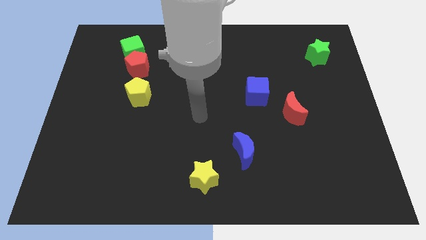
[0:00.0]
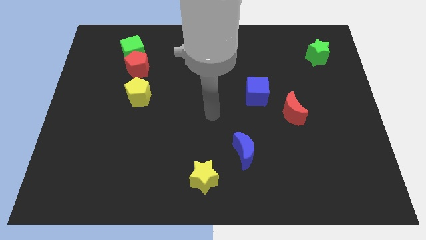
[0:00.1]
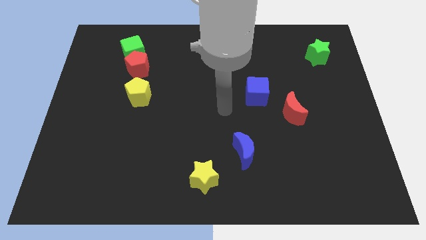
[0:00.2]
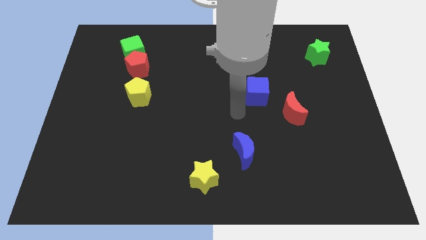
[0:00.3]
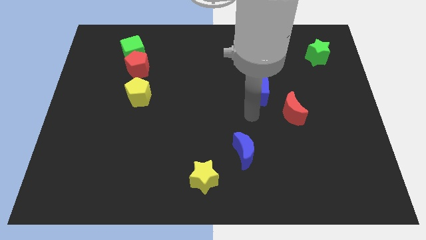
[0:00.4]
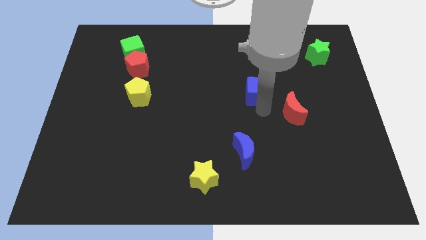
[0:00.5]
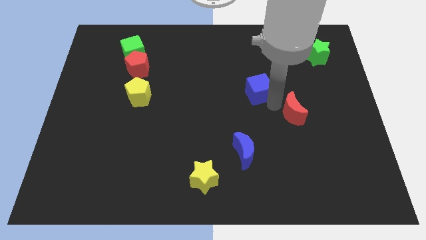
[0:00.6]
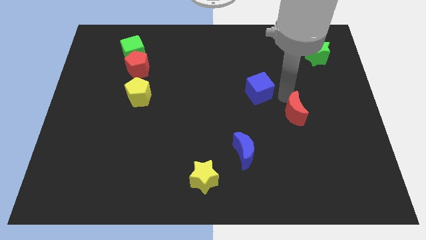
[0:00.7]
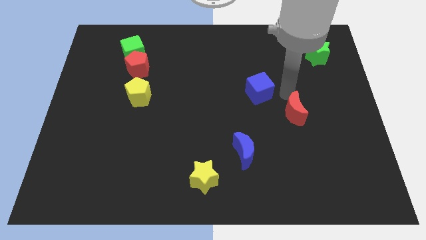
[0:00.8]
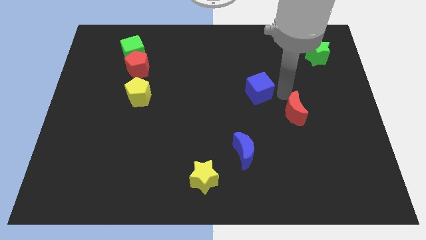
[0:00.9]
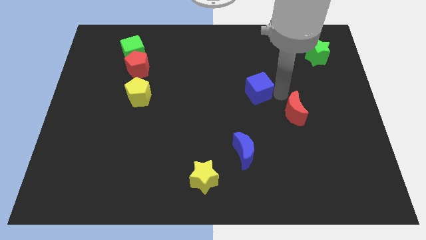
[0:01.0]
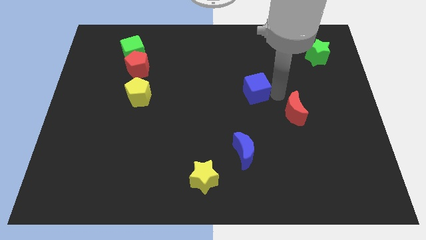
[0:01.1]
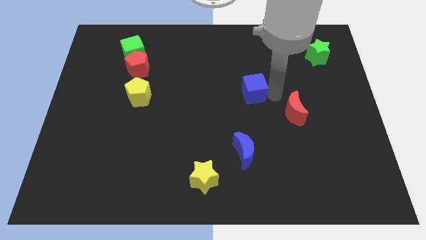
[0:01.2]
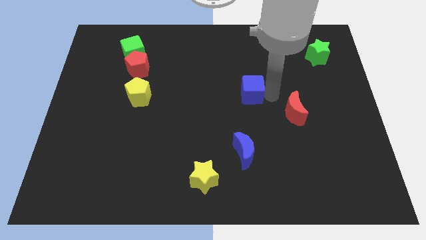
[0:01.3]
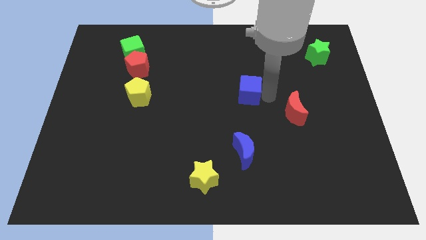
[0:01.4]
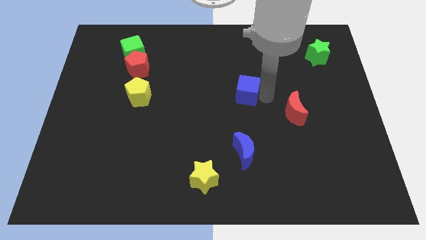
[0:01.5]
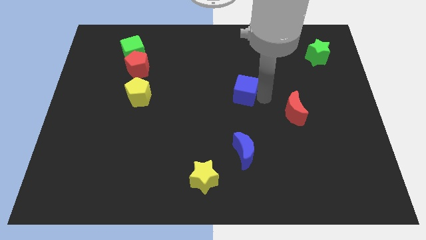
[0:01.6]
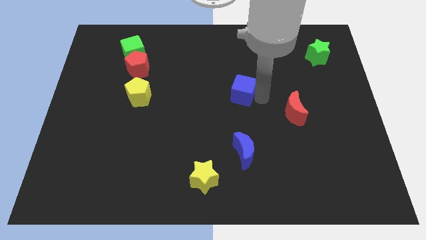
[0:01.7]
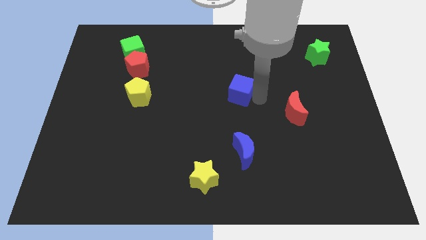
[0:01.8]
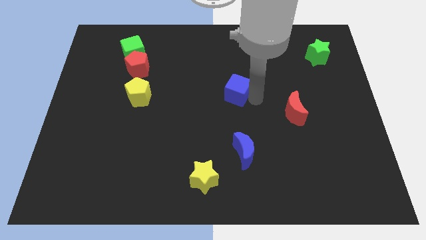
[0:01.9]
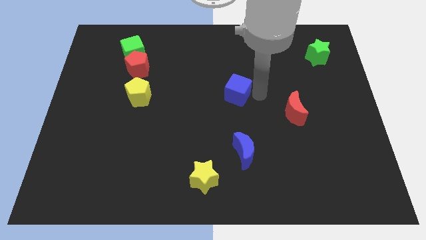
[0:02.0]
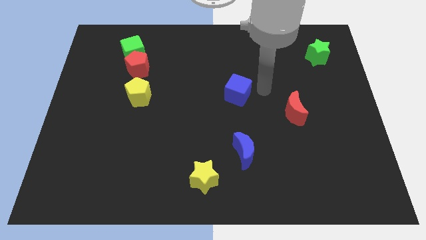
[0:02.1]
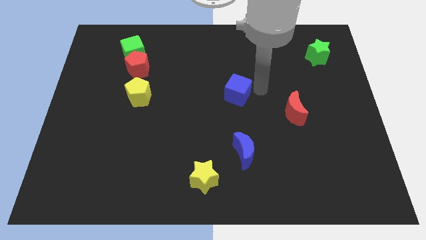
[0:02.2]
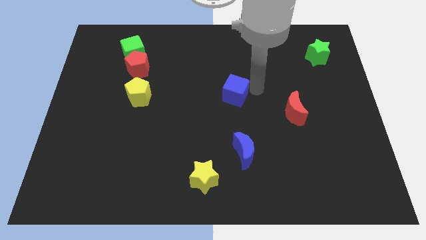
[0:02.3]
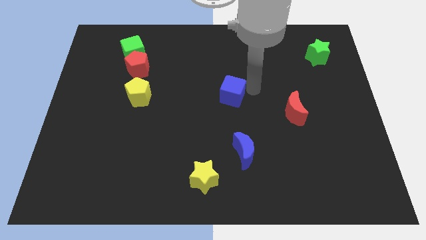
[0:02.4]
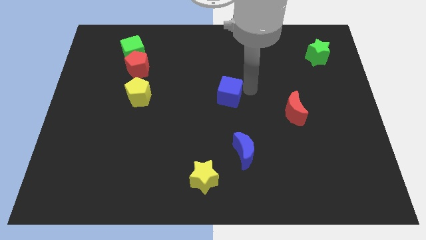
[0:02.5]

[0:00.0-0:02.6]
slightly slide the blue cube to the left

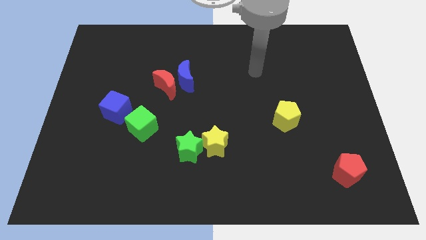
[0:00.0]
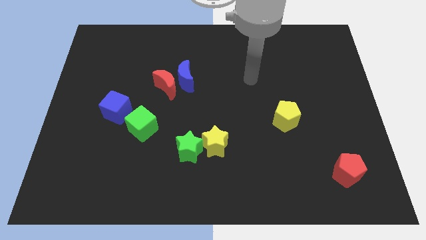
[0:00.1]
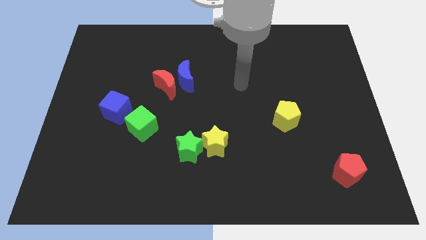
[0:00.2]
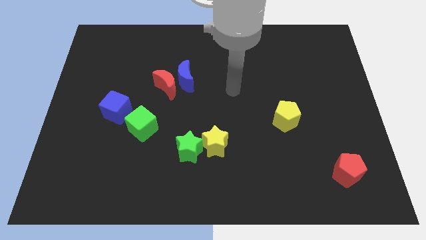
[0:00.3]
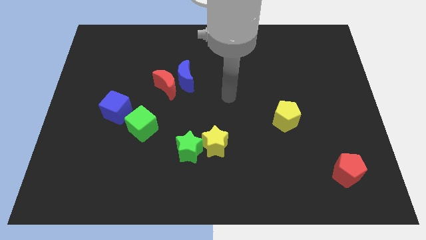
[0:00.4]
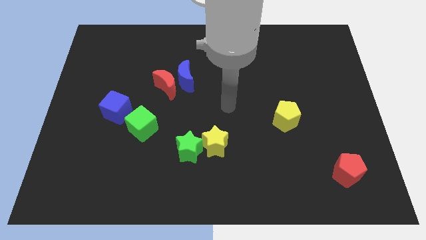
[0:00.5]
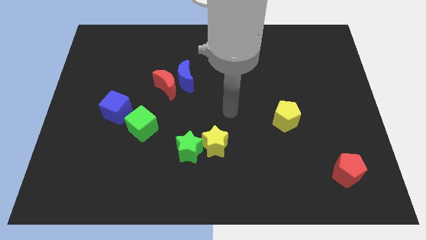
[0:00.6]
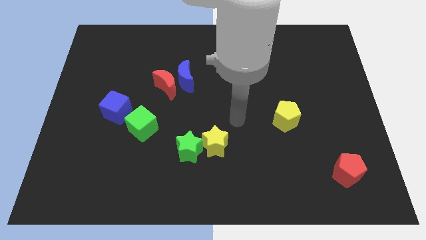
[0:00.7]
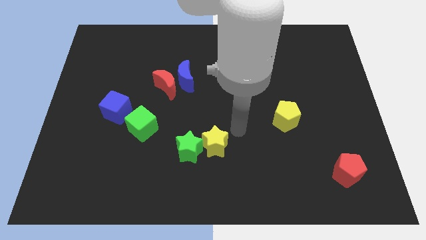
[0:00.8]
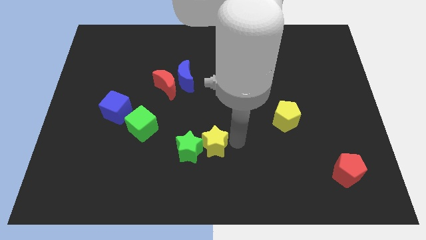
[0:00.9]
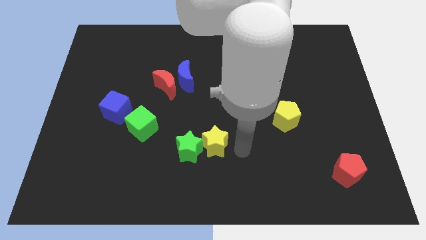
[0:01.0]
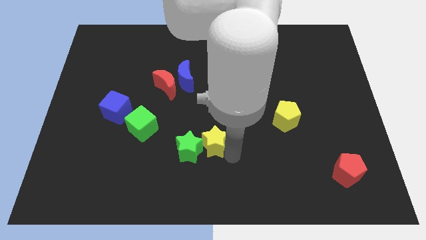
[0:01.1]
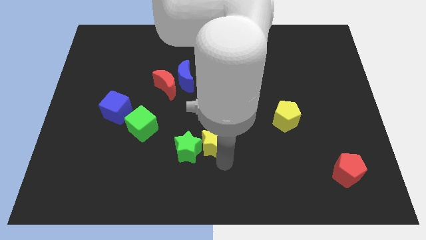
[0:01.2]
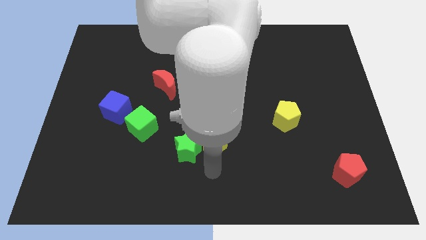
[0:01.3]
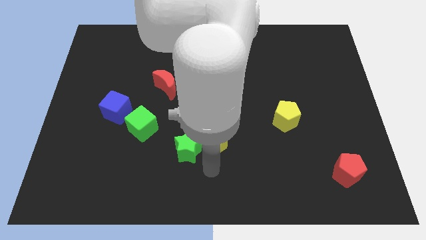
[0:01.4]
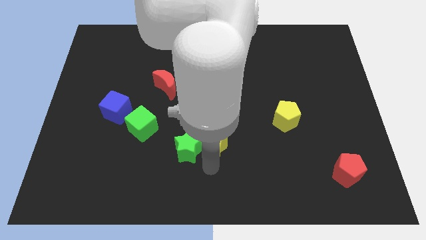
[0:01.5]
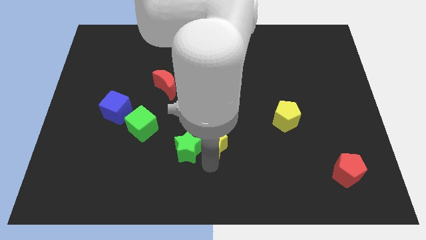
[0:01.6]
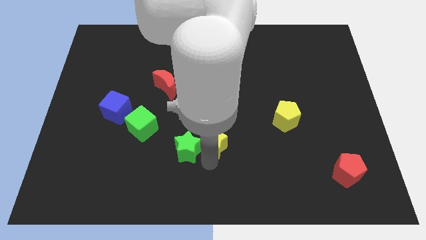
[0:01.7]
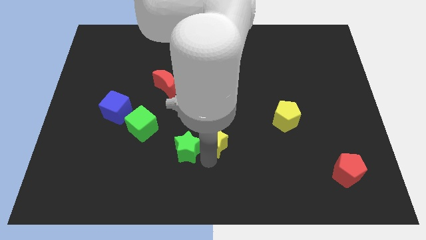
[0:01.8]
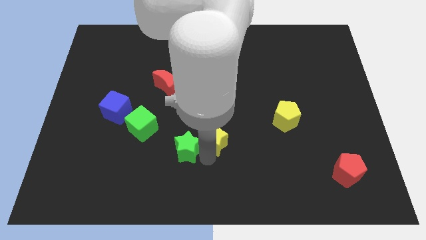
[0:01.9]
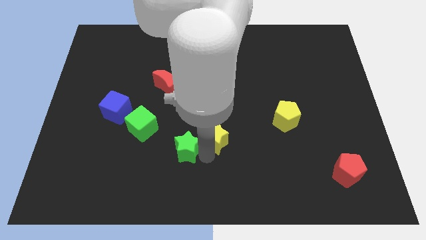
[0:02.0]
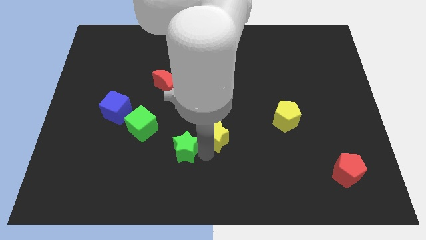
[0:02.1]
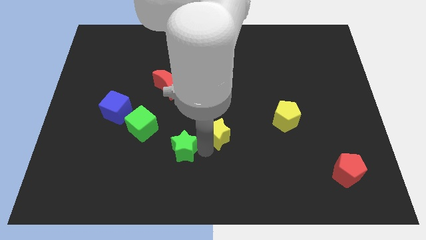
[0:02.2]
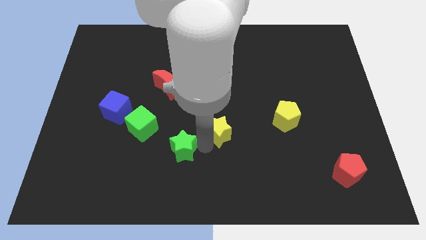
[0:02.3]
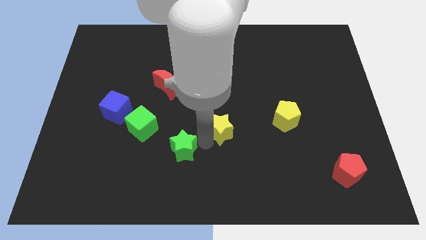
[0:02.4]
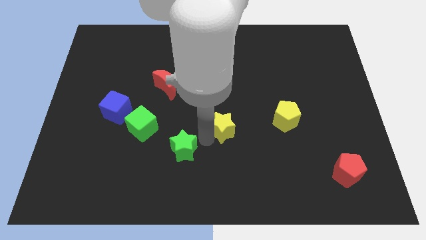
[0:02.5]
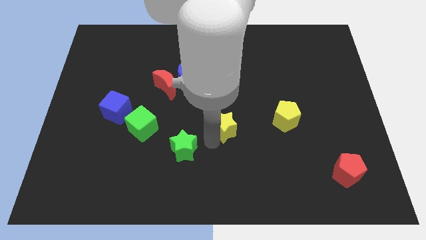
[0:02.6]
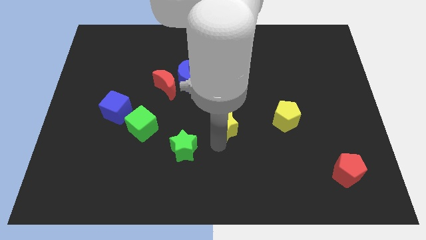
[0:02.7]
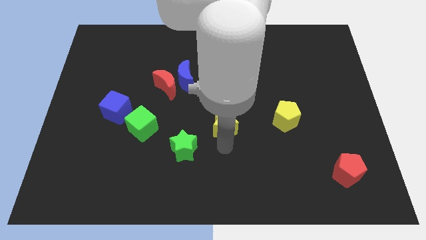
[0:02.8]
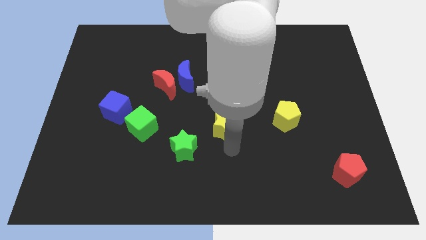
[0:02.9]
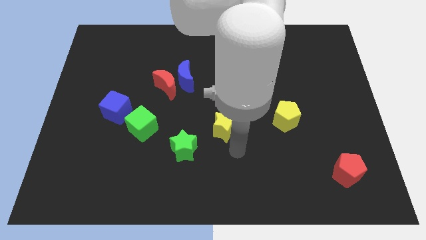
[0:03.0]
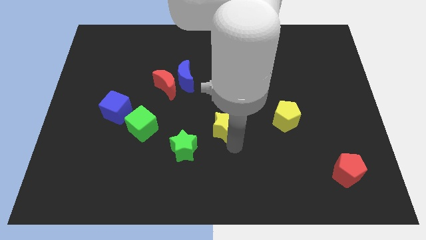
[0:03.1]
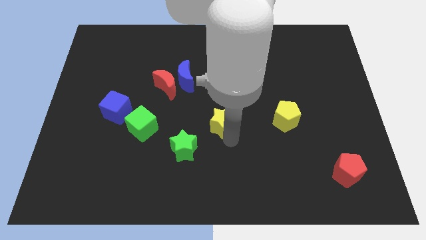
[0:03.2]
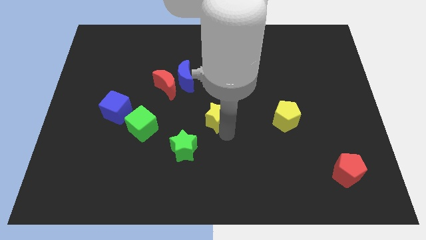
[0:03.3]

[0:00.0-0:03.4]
move the yellow star a little up

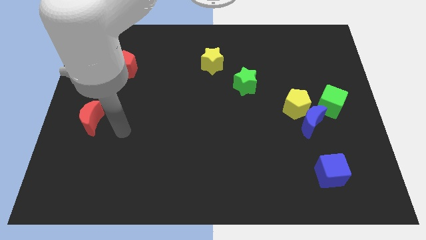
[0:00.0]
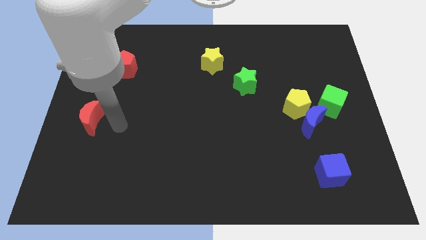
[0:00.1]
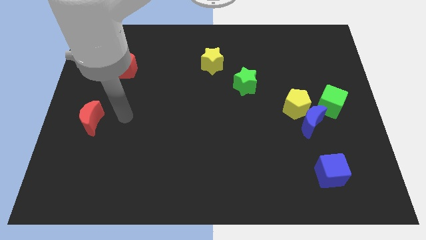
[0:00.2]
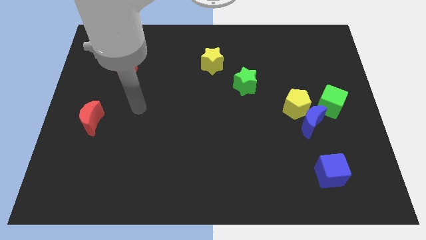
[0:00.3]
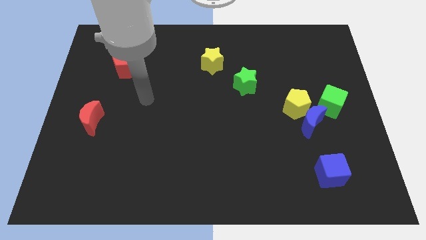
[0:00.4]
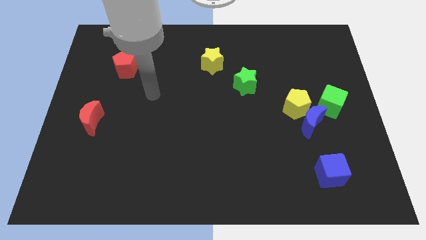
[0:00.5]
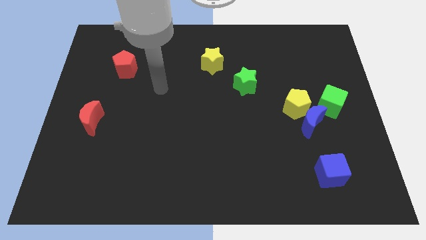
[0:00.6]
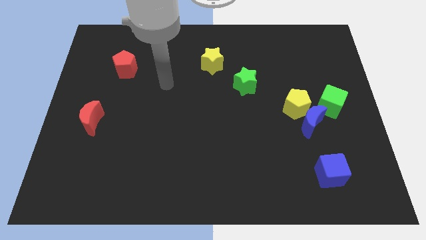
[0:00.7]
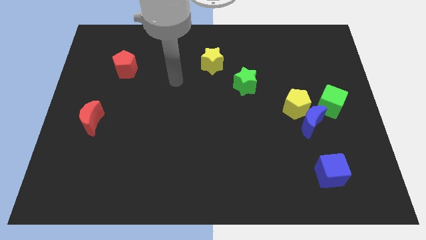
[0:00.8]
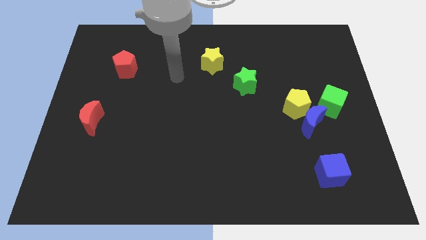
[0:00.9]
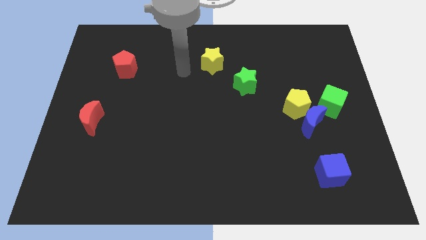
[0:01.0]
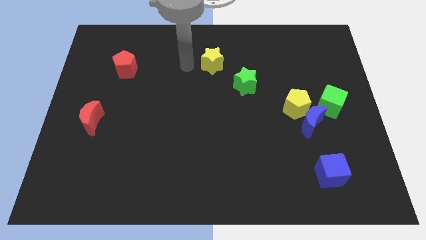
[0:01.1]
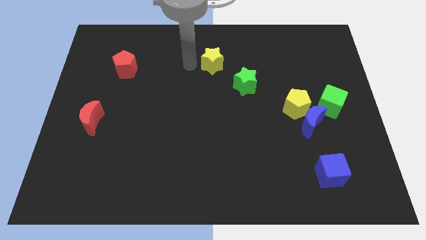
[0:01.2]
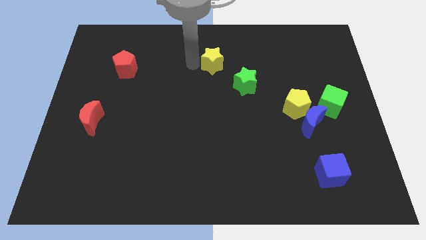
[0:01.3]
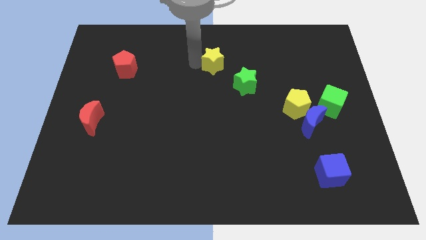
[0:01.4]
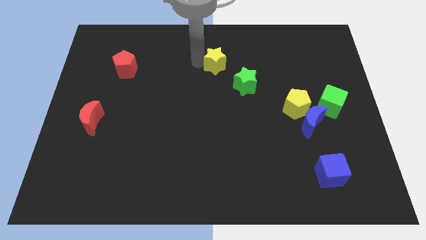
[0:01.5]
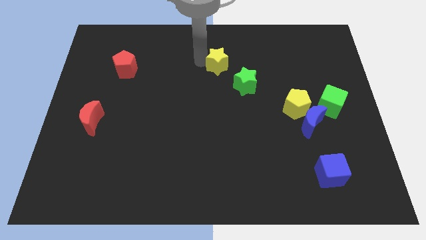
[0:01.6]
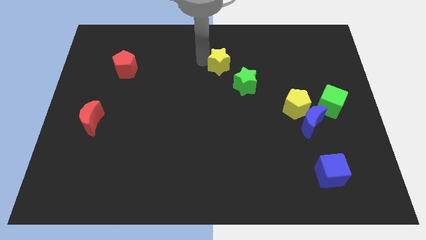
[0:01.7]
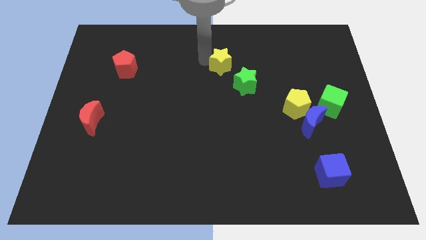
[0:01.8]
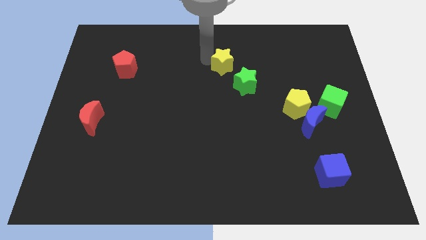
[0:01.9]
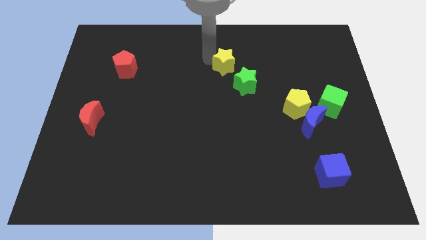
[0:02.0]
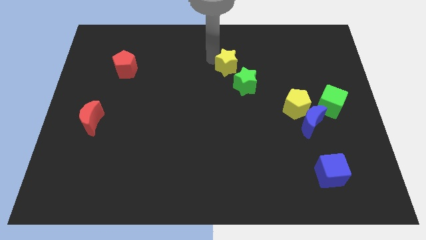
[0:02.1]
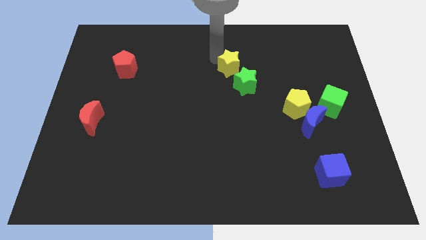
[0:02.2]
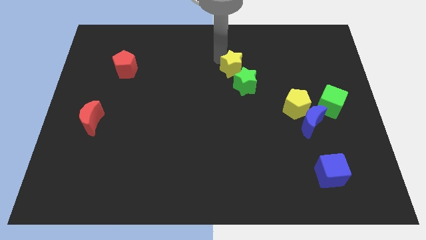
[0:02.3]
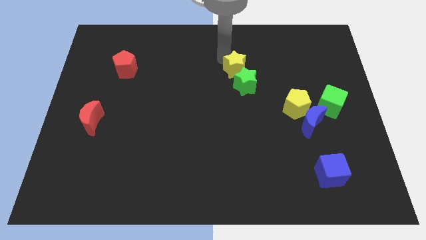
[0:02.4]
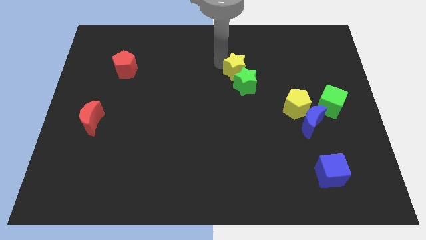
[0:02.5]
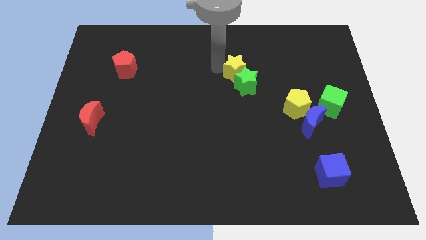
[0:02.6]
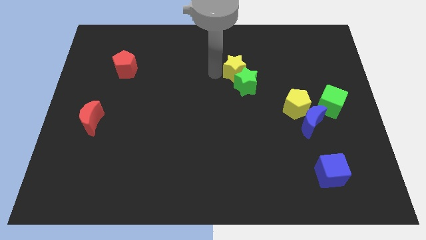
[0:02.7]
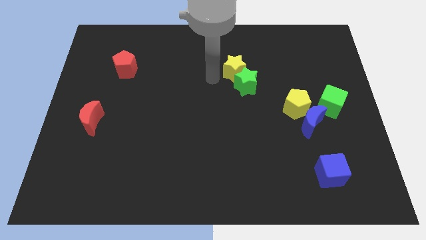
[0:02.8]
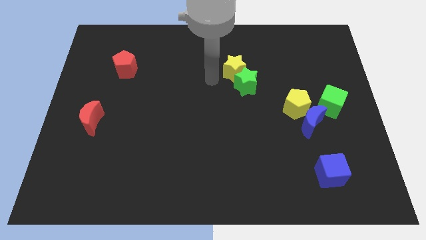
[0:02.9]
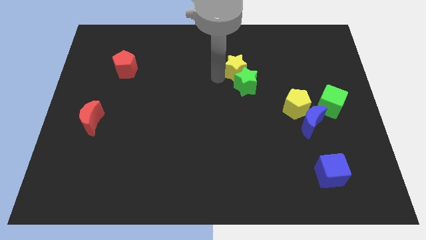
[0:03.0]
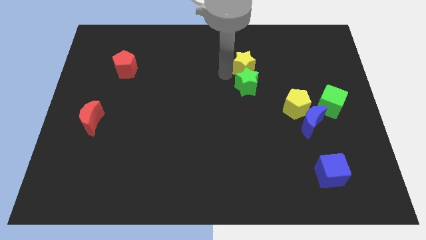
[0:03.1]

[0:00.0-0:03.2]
slide the yellow star somewhat right
